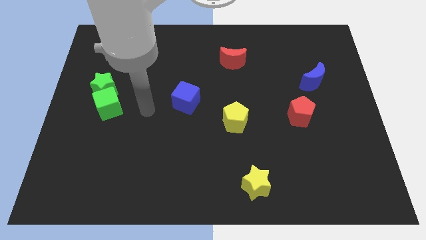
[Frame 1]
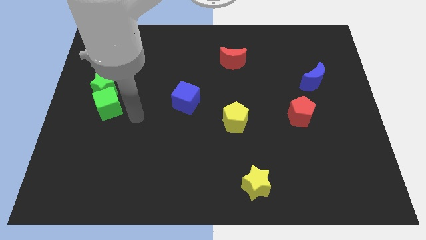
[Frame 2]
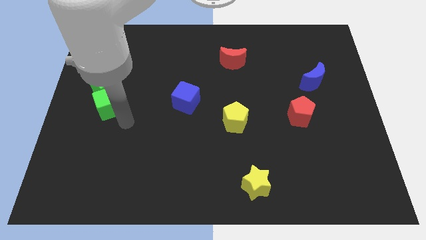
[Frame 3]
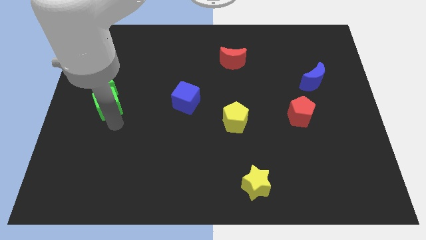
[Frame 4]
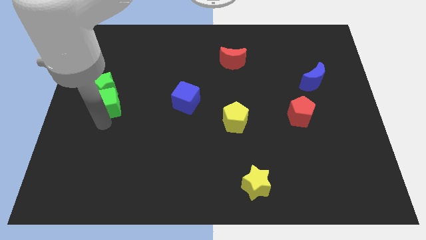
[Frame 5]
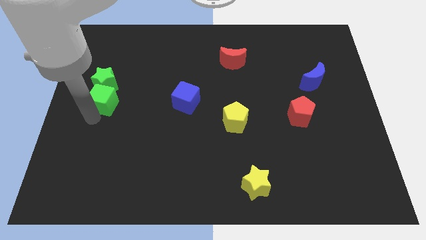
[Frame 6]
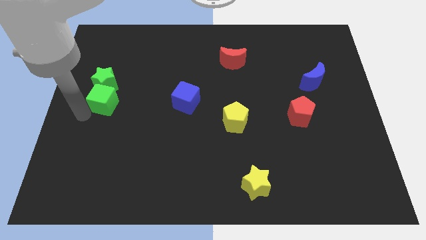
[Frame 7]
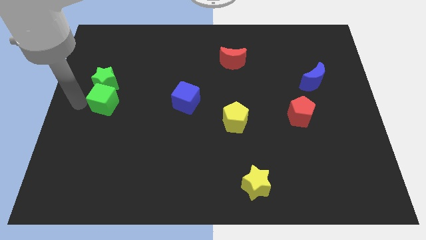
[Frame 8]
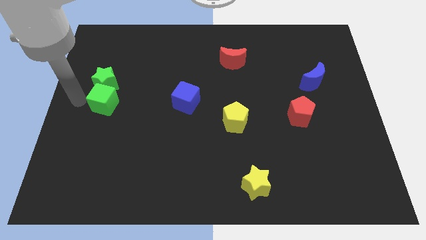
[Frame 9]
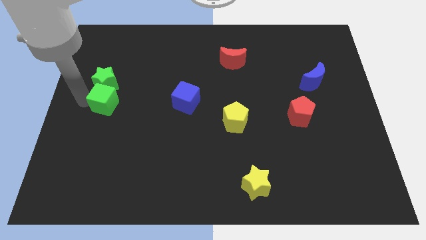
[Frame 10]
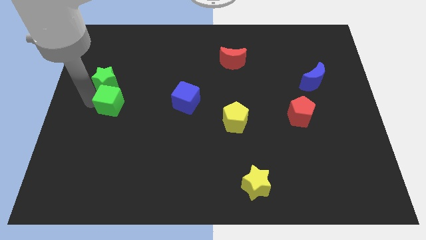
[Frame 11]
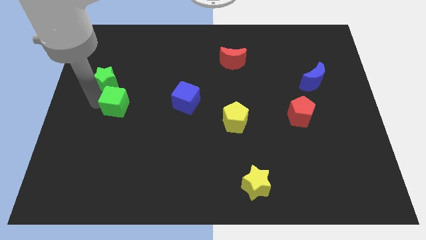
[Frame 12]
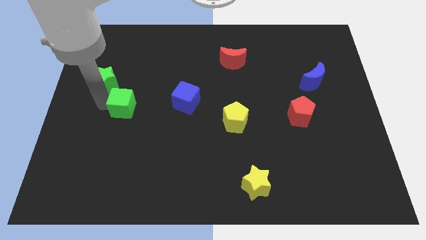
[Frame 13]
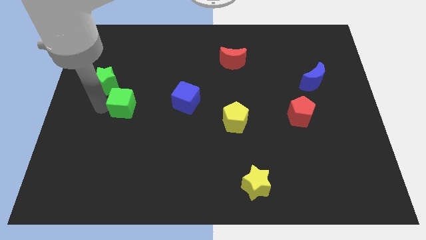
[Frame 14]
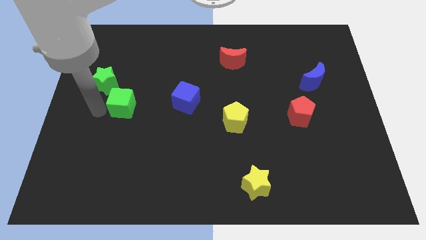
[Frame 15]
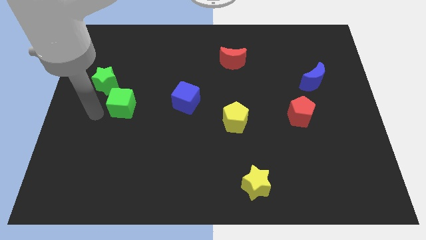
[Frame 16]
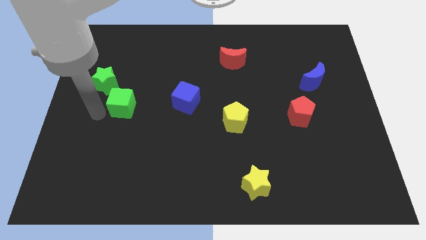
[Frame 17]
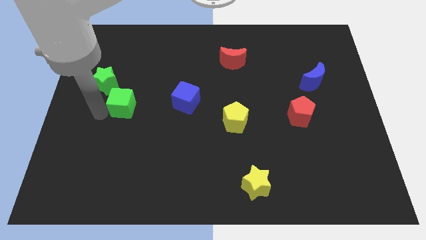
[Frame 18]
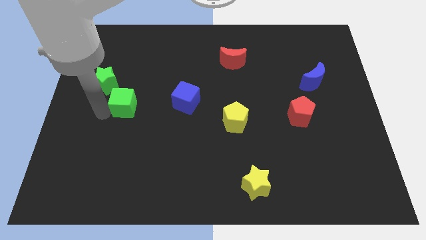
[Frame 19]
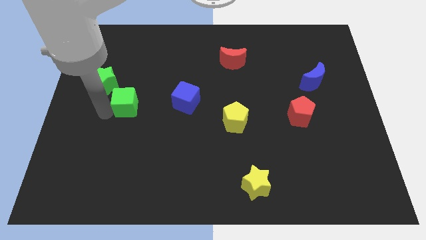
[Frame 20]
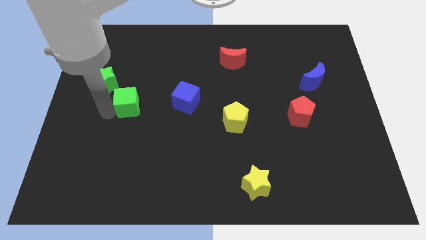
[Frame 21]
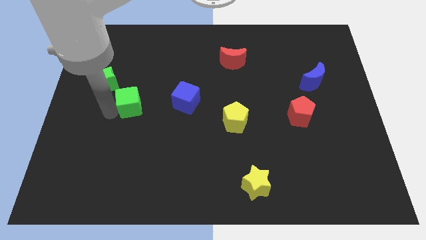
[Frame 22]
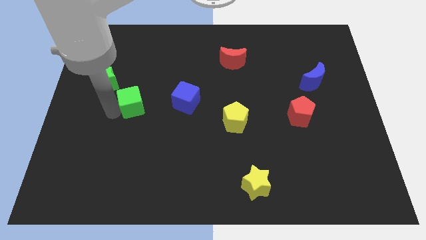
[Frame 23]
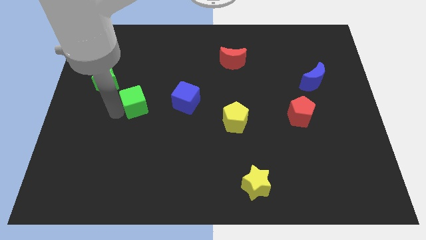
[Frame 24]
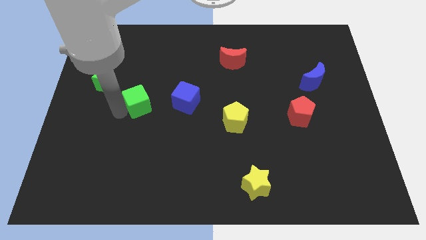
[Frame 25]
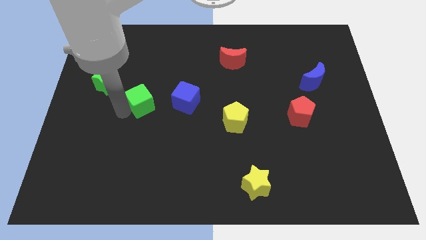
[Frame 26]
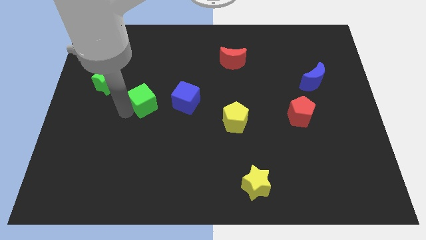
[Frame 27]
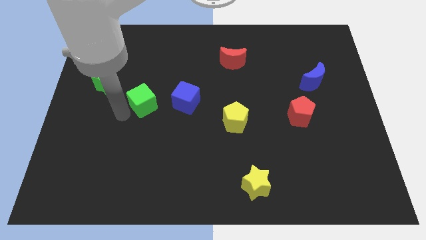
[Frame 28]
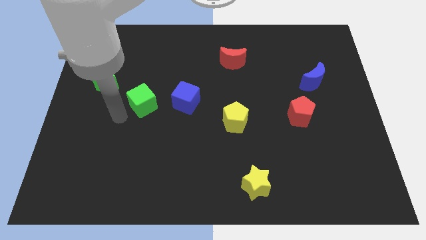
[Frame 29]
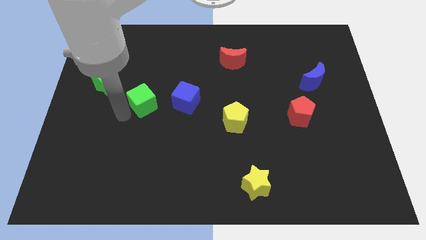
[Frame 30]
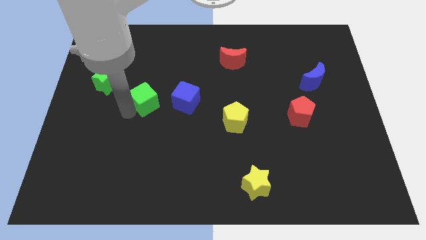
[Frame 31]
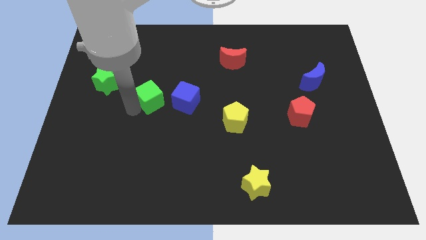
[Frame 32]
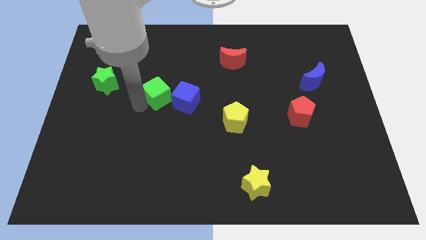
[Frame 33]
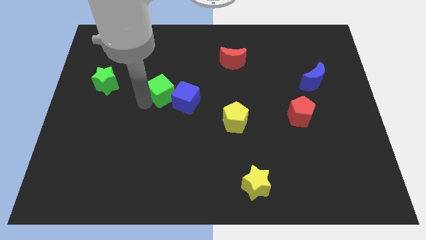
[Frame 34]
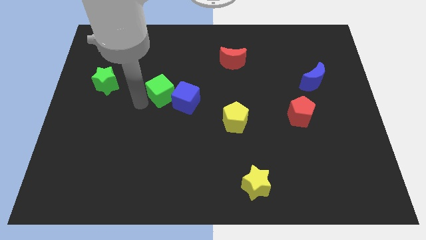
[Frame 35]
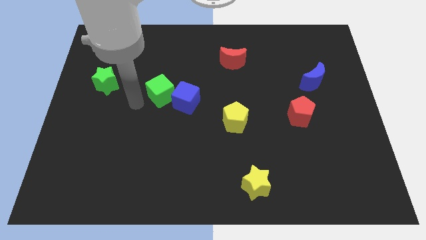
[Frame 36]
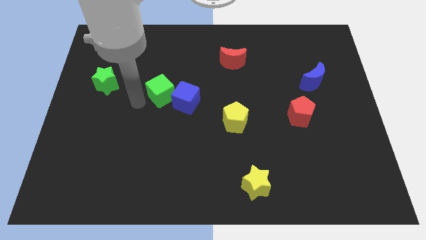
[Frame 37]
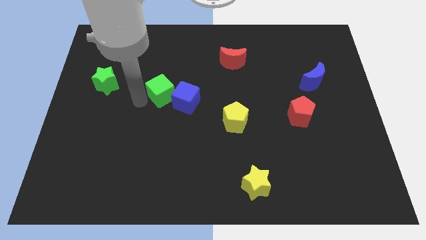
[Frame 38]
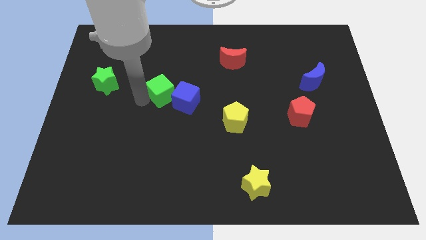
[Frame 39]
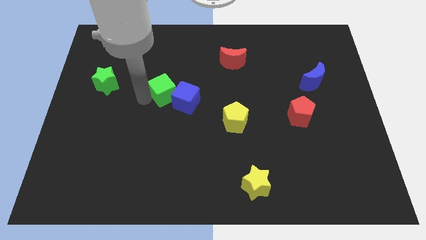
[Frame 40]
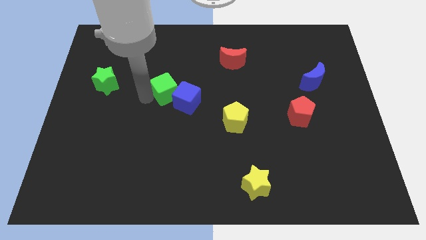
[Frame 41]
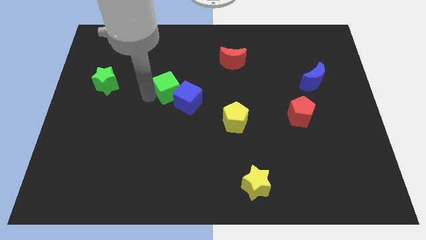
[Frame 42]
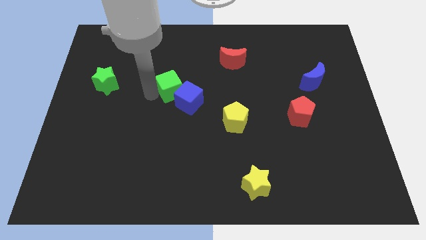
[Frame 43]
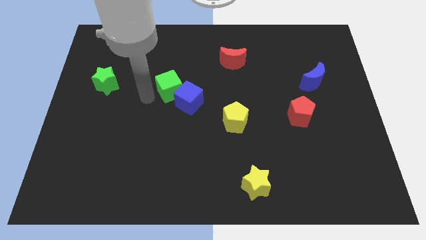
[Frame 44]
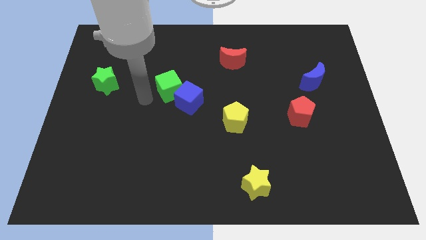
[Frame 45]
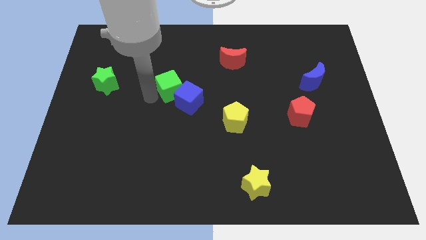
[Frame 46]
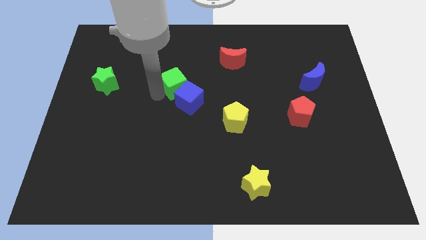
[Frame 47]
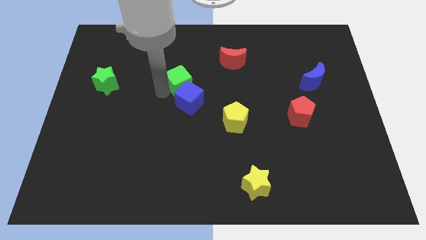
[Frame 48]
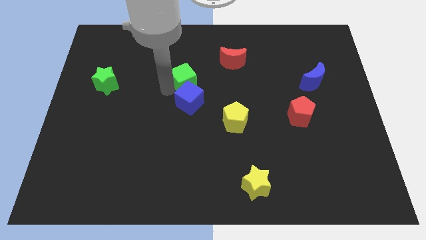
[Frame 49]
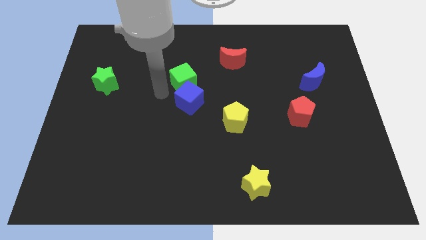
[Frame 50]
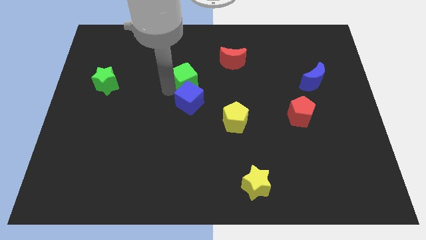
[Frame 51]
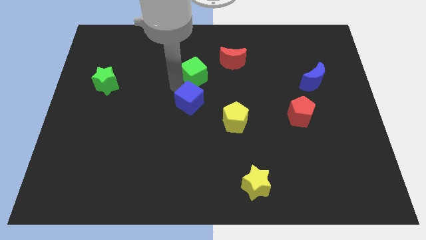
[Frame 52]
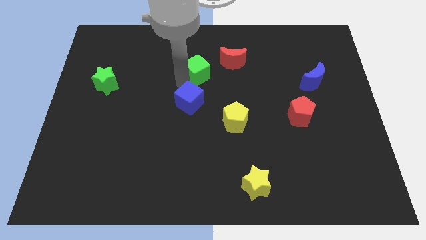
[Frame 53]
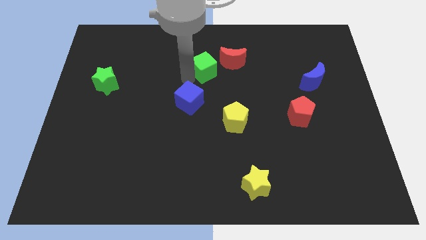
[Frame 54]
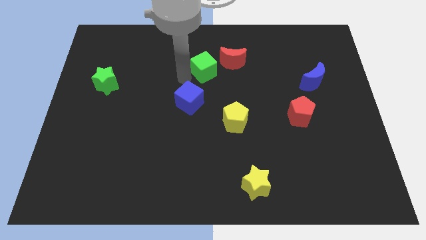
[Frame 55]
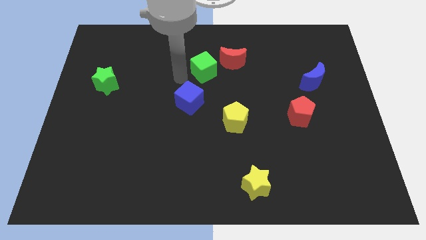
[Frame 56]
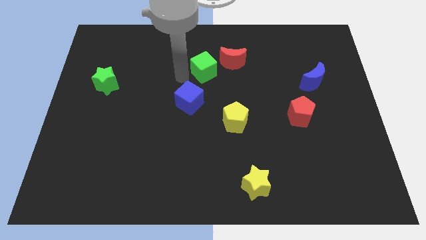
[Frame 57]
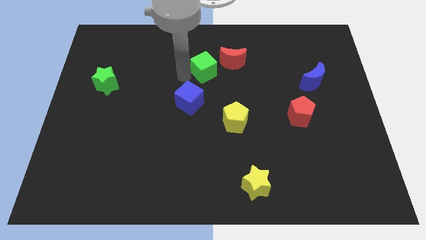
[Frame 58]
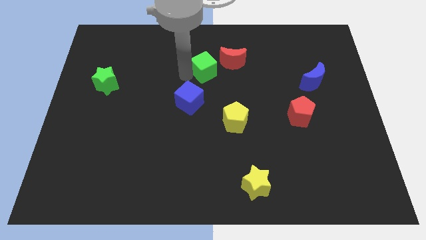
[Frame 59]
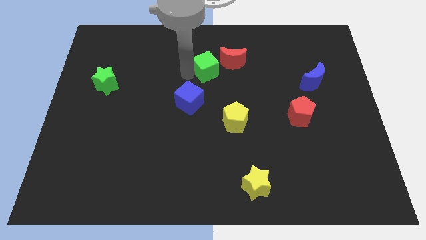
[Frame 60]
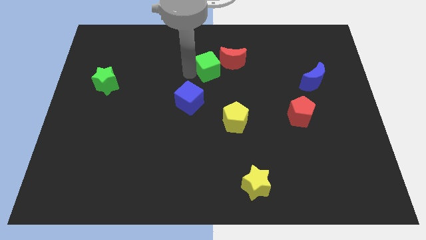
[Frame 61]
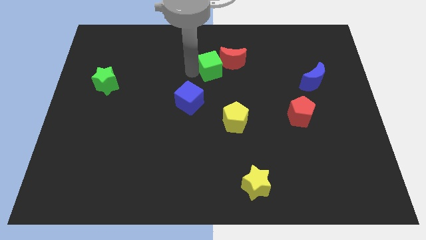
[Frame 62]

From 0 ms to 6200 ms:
push the green cube towards the red moon

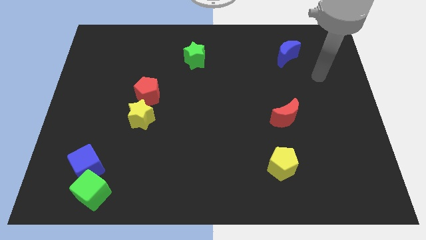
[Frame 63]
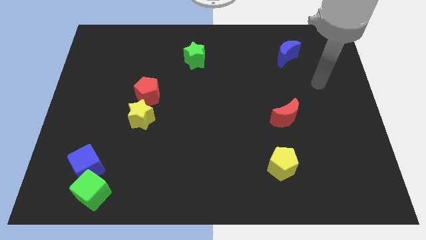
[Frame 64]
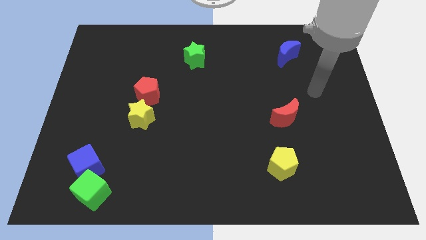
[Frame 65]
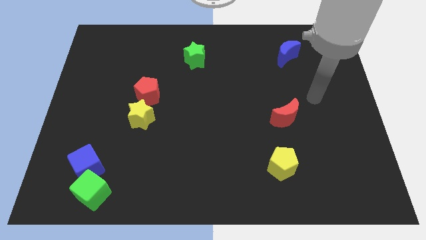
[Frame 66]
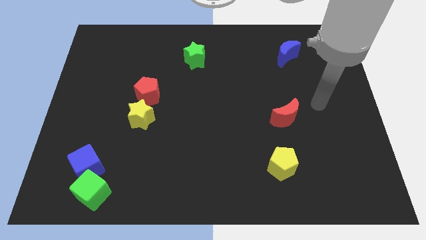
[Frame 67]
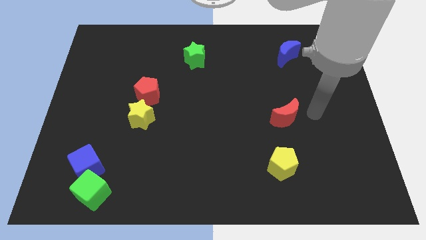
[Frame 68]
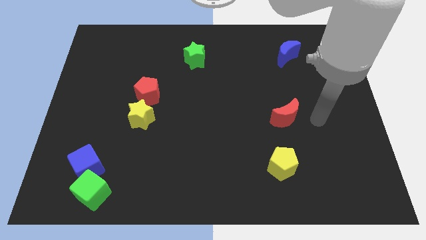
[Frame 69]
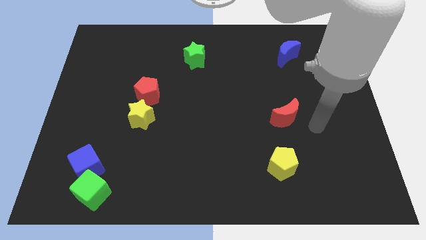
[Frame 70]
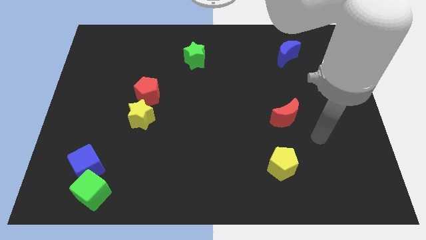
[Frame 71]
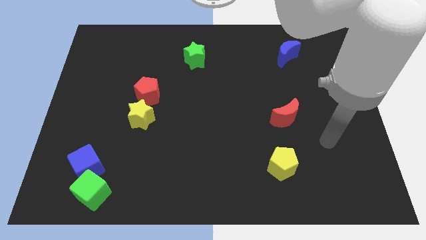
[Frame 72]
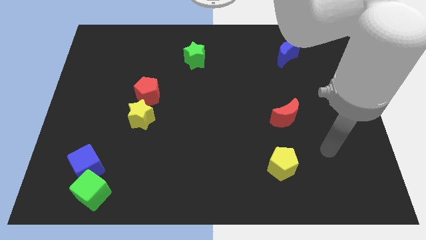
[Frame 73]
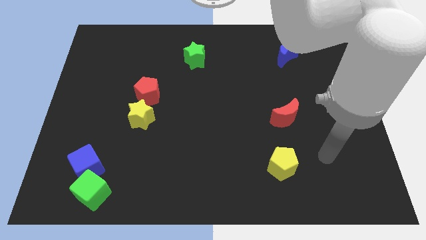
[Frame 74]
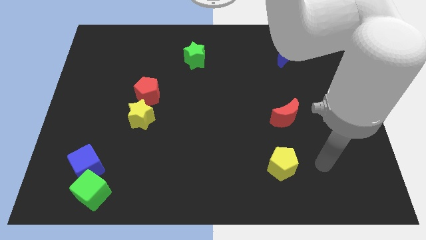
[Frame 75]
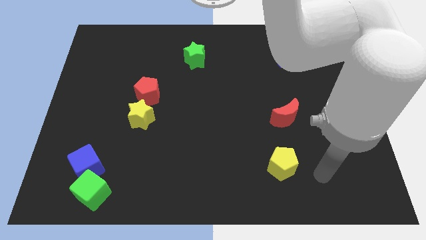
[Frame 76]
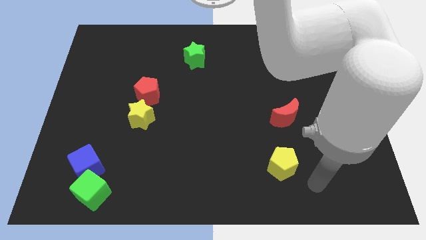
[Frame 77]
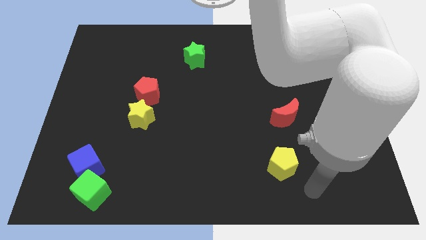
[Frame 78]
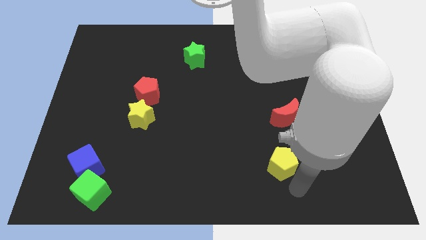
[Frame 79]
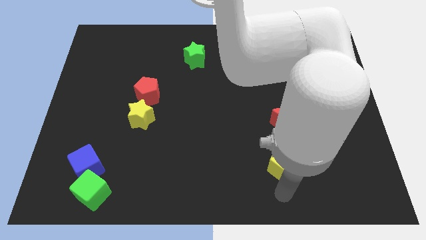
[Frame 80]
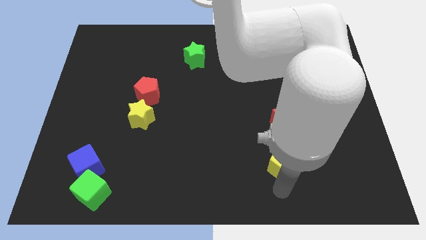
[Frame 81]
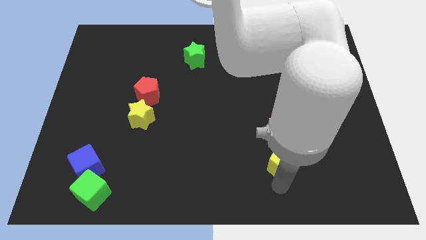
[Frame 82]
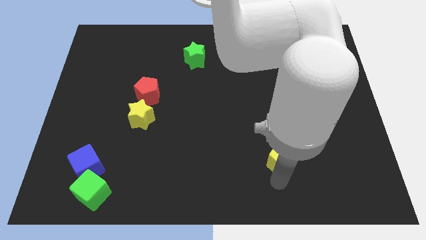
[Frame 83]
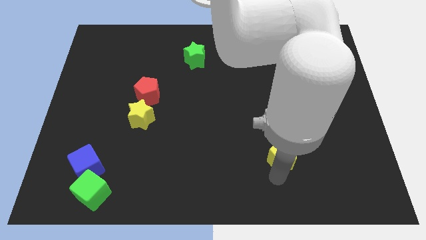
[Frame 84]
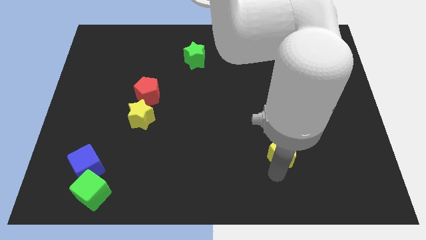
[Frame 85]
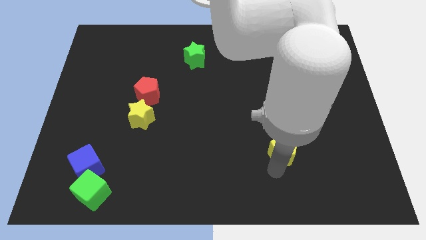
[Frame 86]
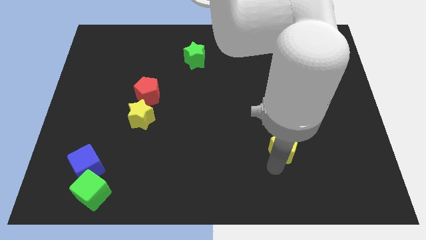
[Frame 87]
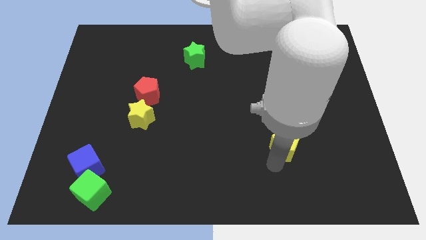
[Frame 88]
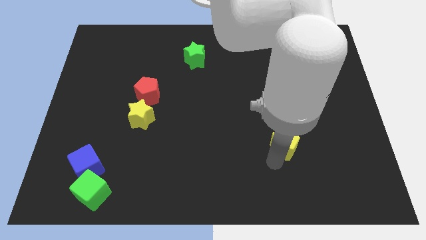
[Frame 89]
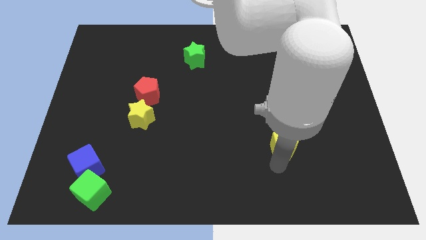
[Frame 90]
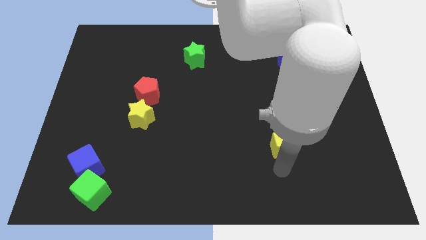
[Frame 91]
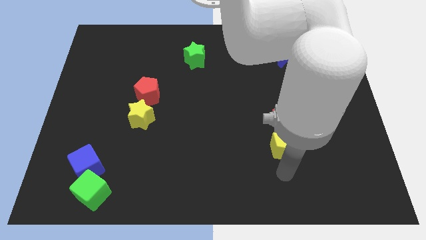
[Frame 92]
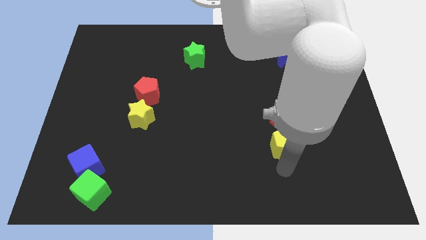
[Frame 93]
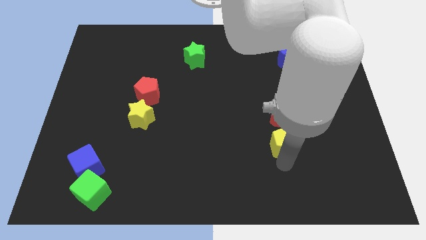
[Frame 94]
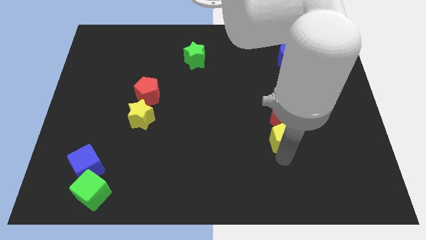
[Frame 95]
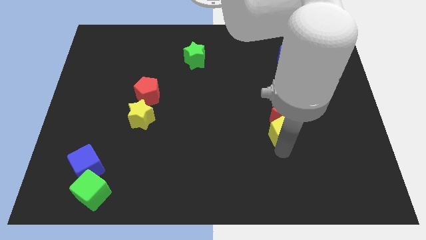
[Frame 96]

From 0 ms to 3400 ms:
put the yellow pentagon to the red moon
